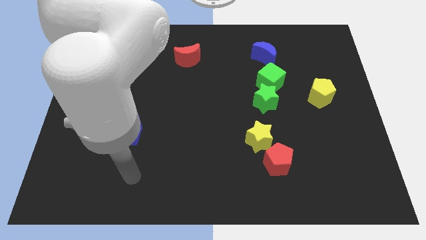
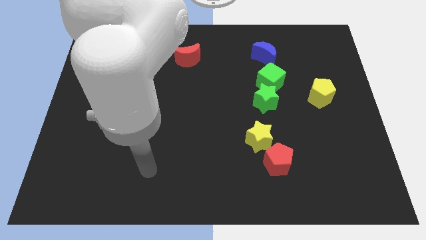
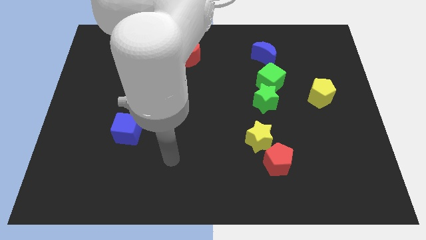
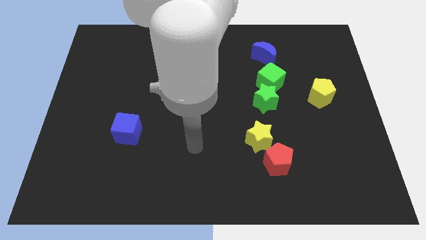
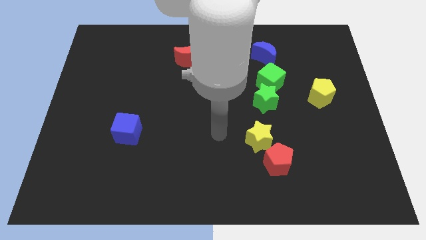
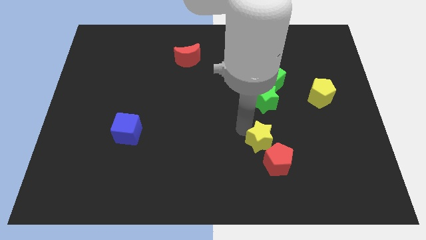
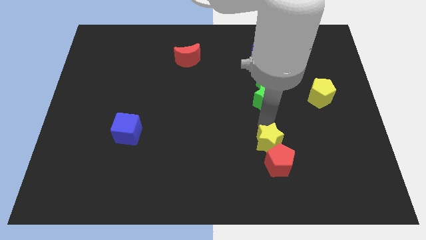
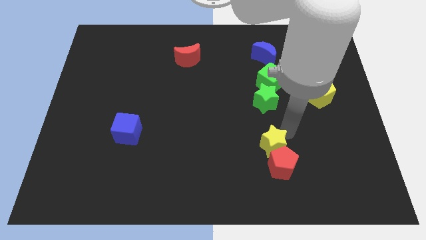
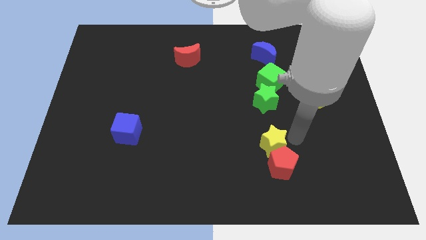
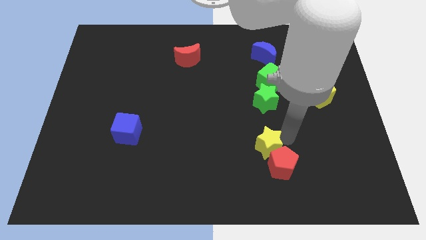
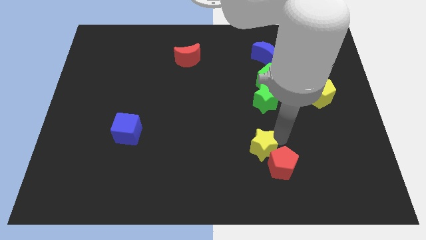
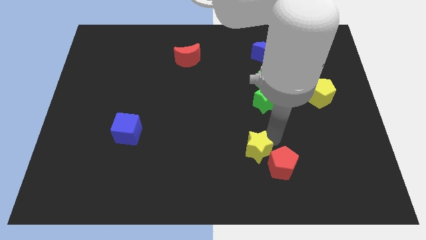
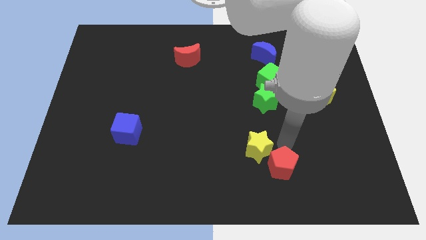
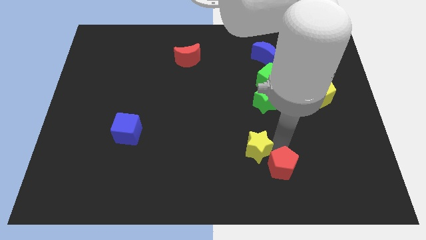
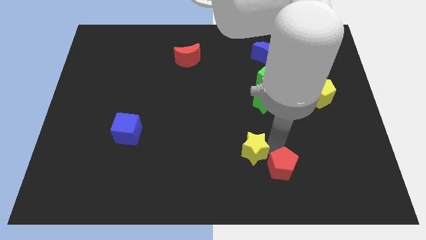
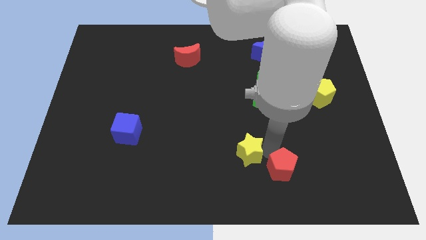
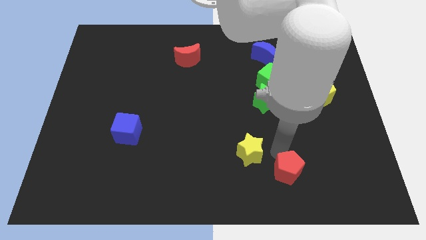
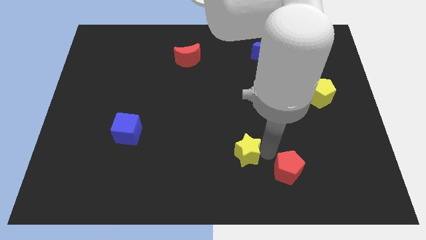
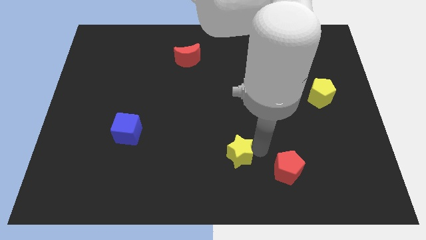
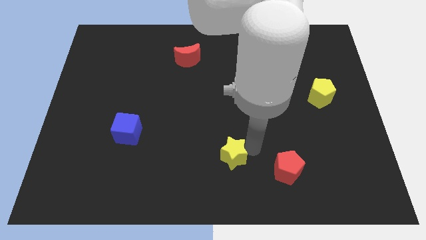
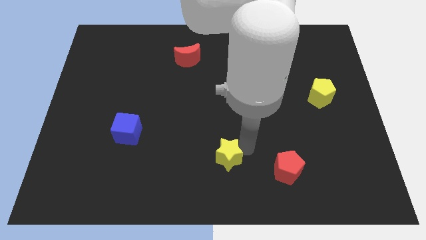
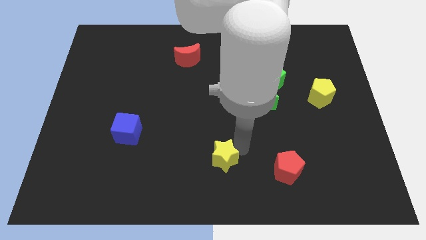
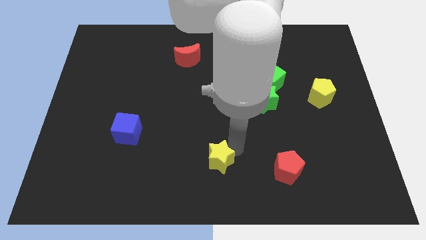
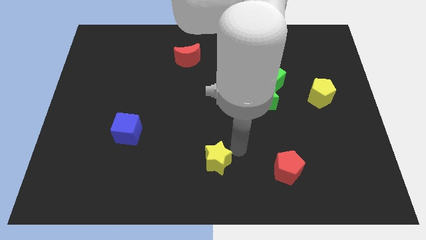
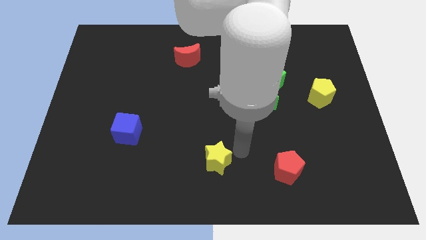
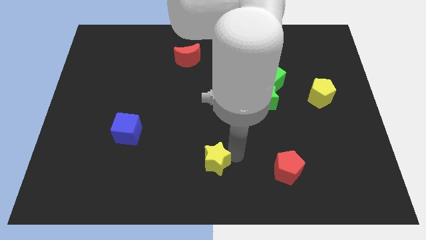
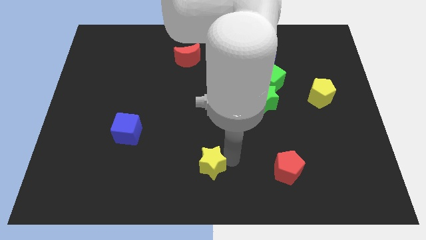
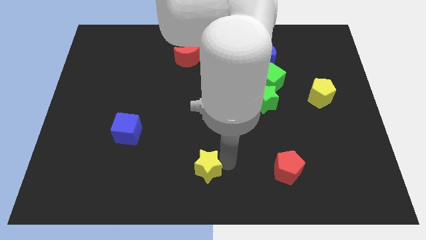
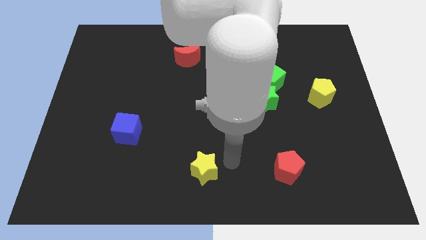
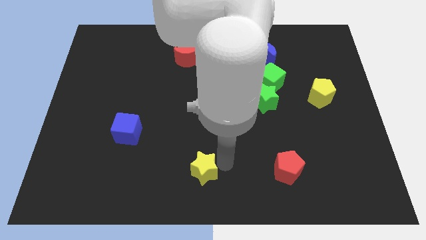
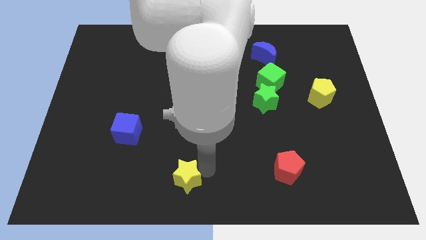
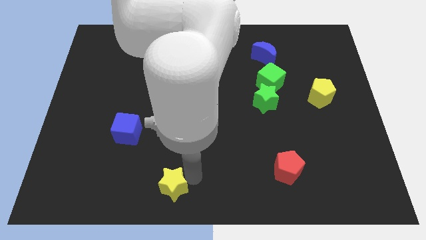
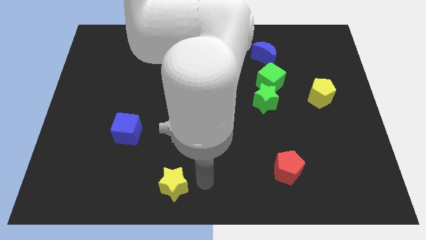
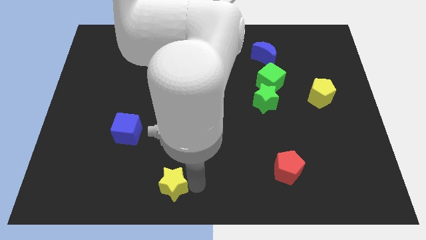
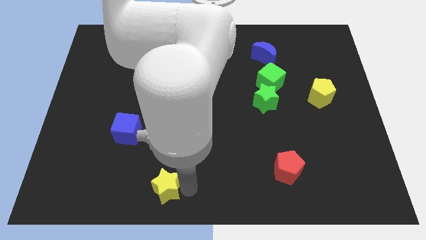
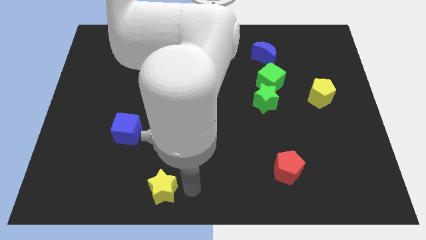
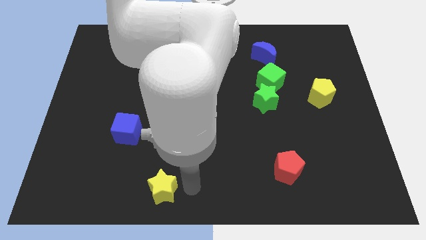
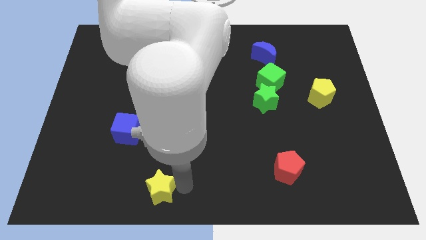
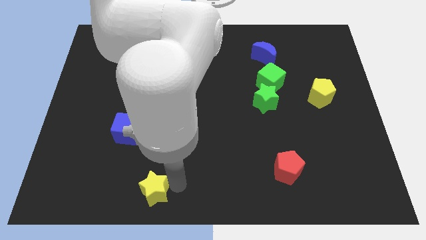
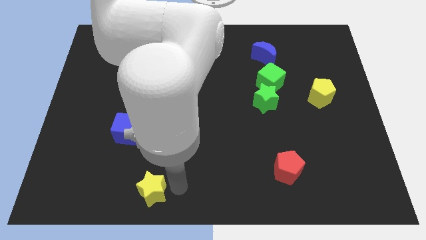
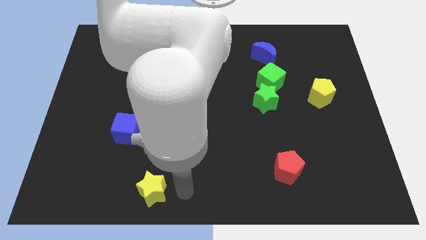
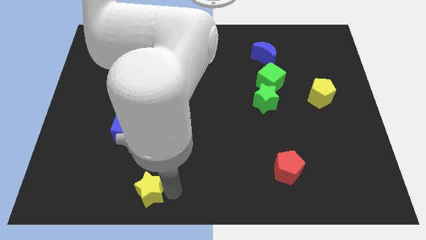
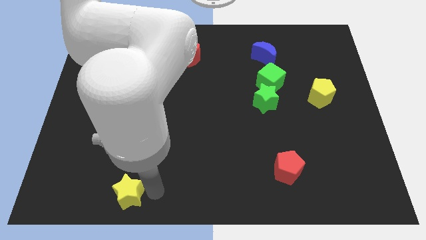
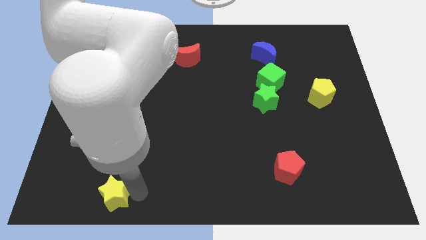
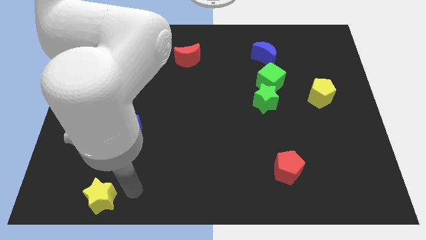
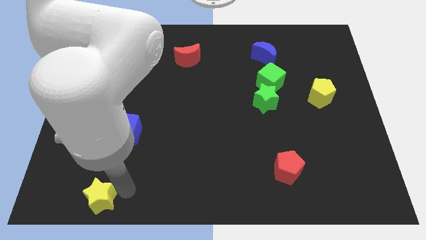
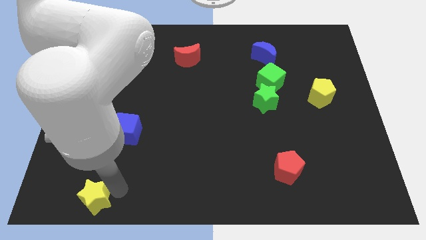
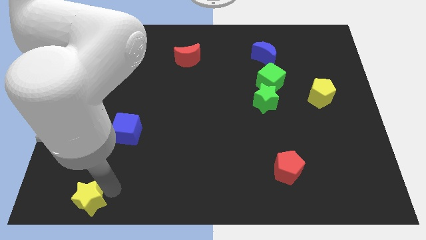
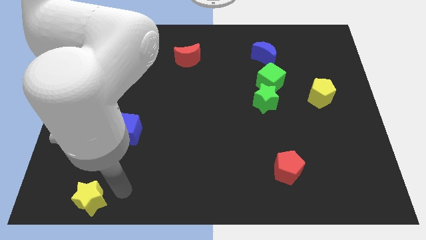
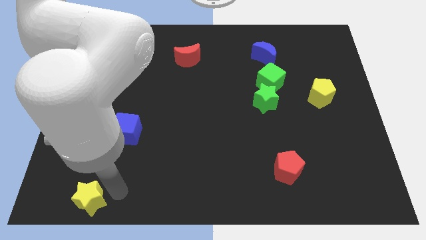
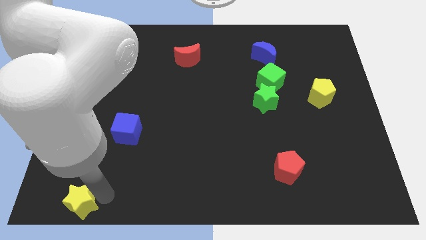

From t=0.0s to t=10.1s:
slide the yellow star to the bottom left corner

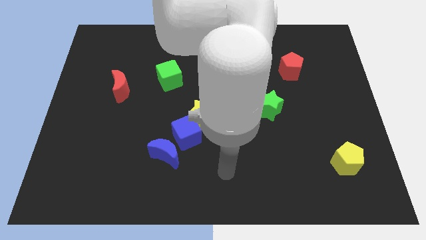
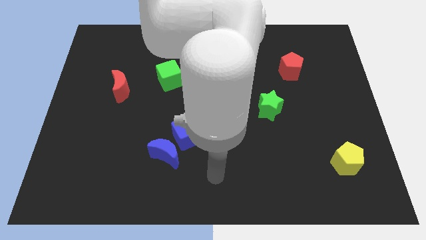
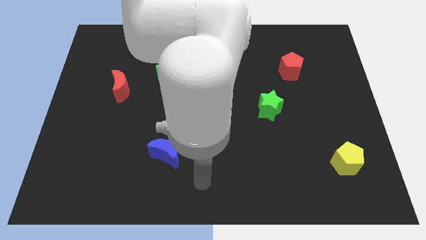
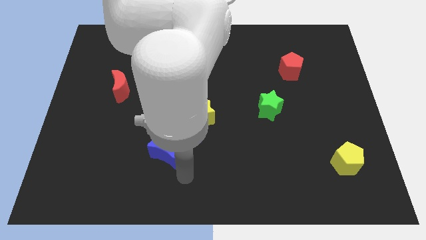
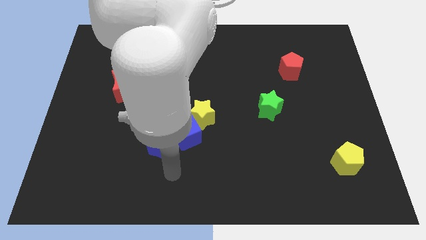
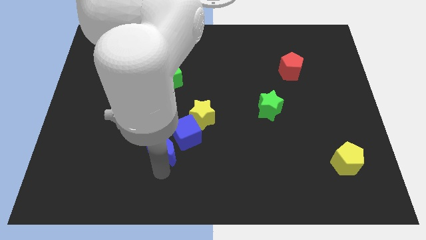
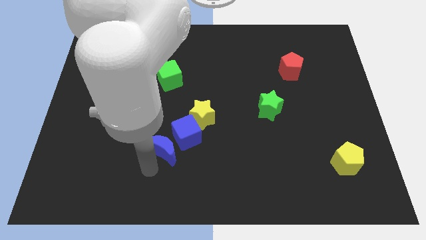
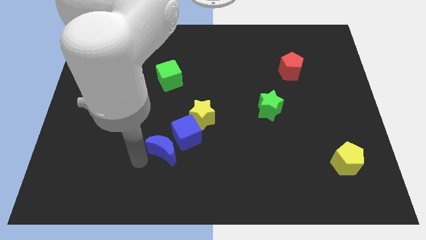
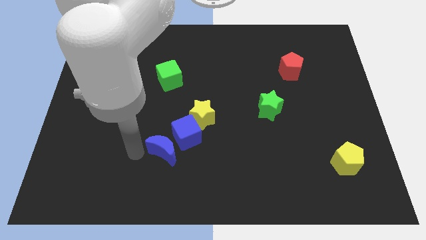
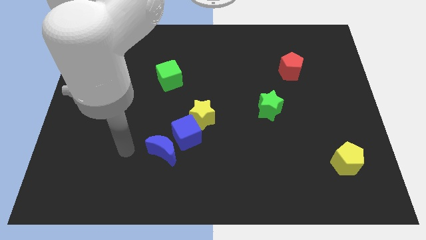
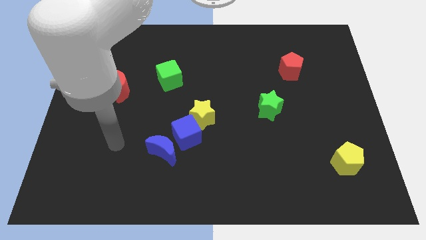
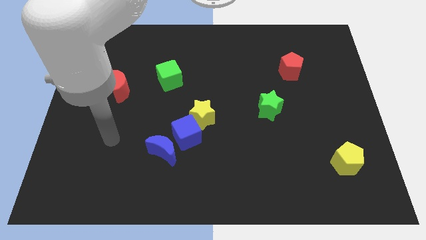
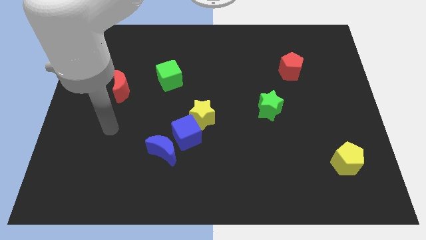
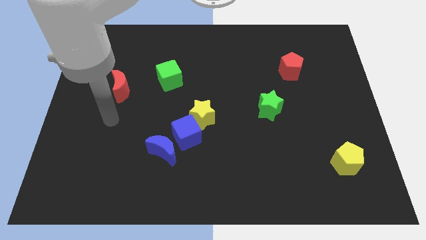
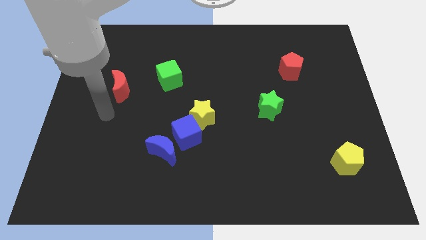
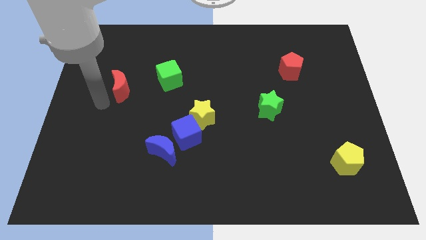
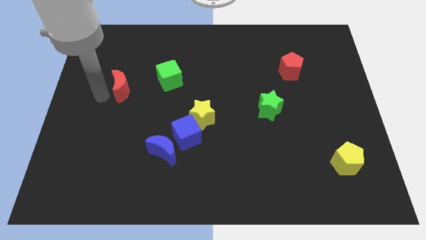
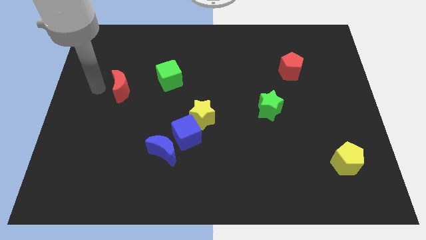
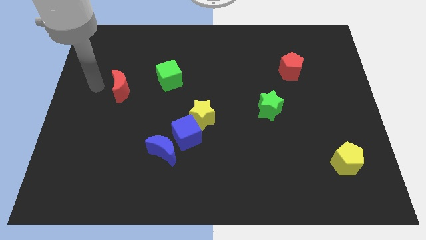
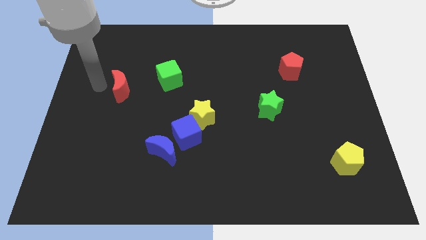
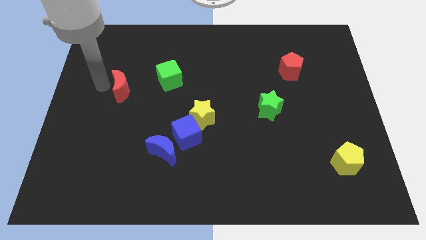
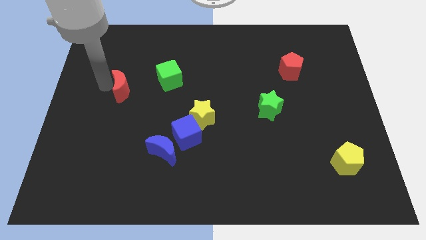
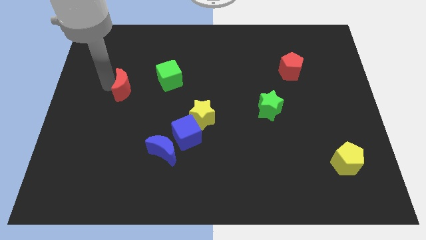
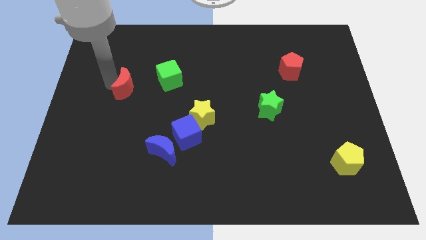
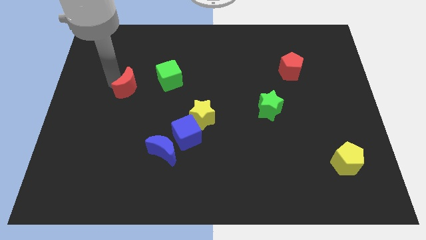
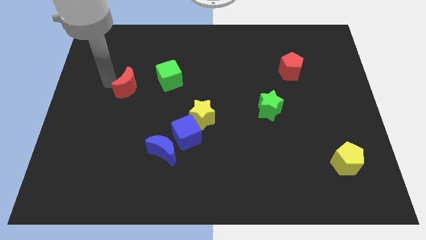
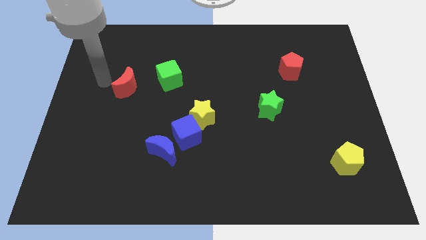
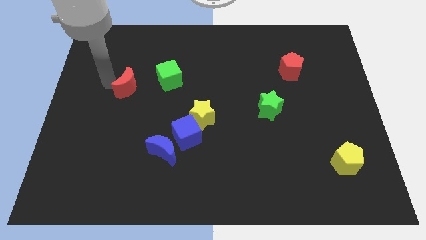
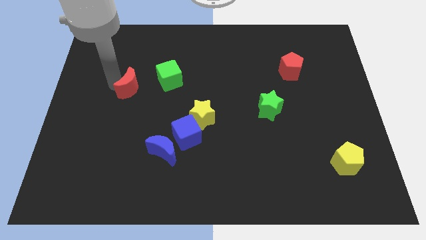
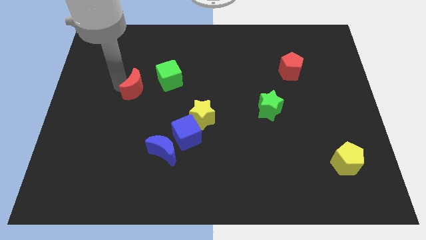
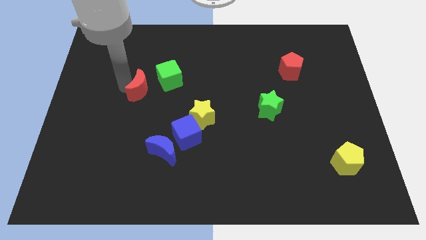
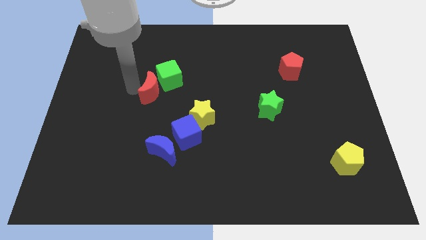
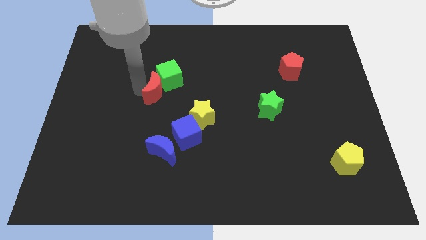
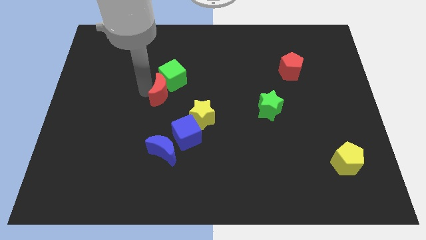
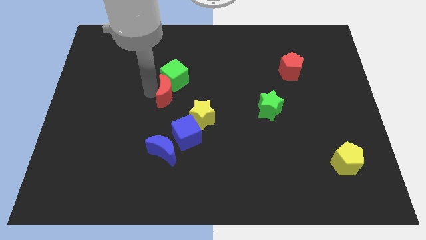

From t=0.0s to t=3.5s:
push the red moon to the center of the board
